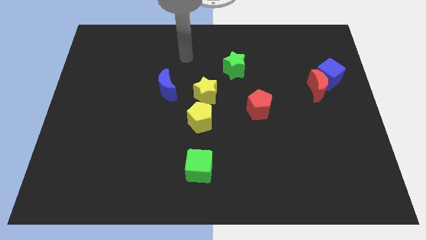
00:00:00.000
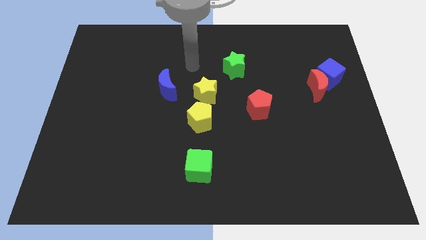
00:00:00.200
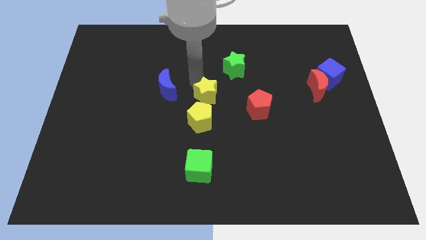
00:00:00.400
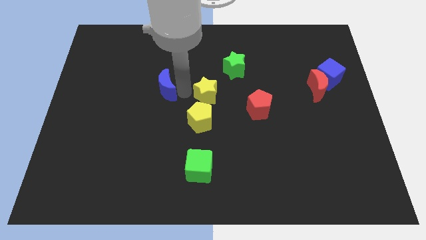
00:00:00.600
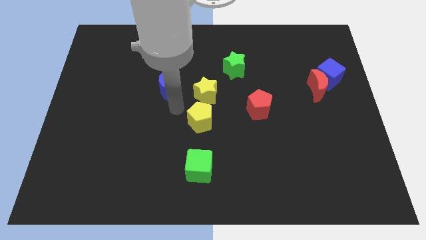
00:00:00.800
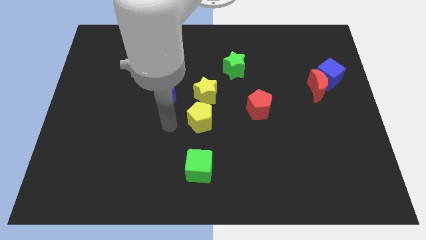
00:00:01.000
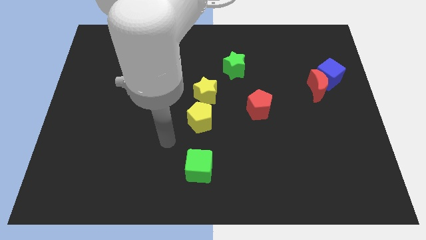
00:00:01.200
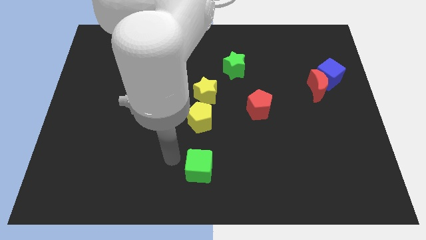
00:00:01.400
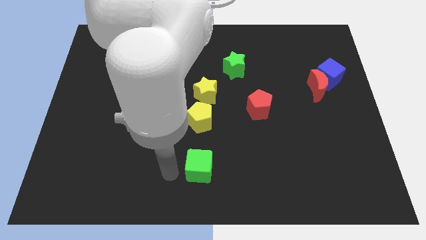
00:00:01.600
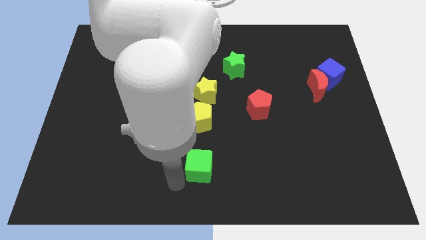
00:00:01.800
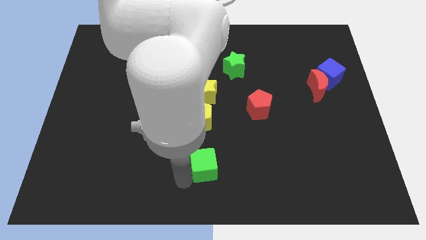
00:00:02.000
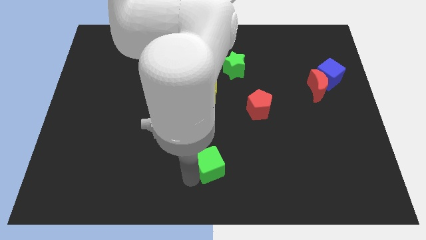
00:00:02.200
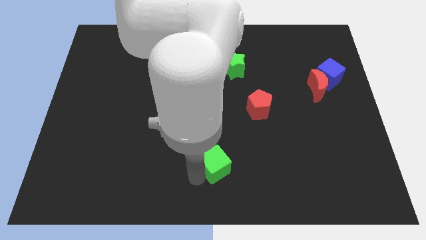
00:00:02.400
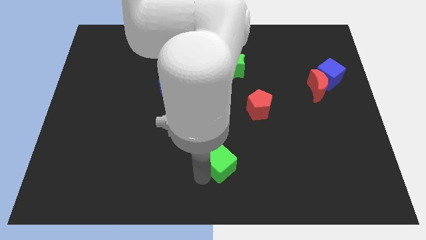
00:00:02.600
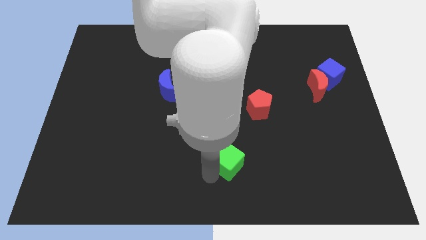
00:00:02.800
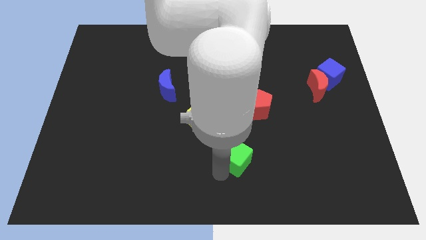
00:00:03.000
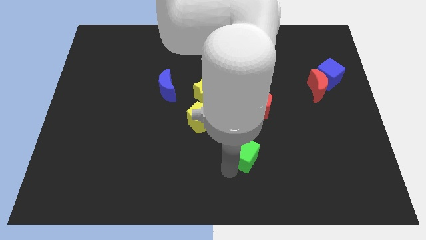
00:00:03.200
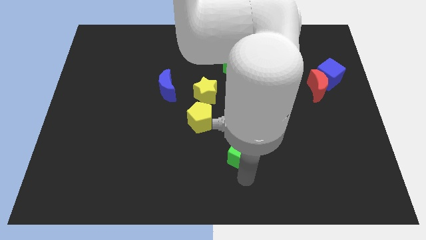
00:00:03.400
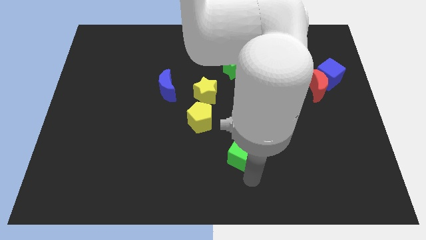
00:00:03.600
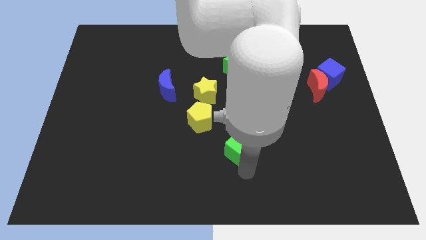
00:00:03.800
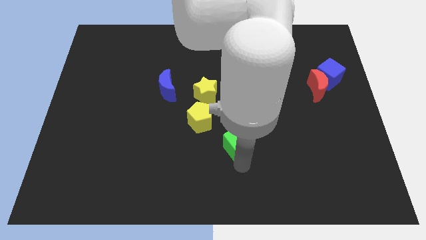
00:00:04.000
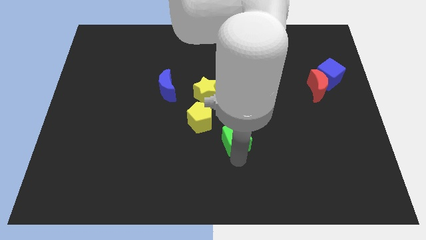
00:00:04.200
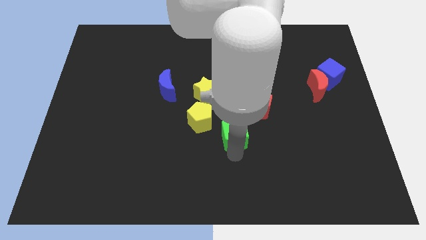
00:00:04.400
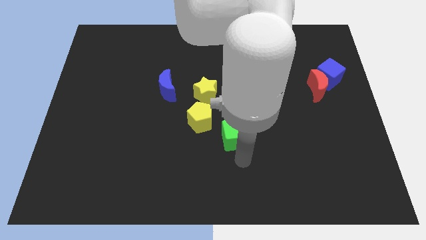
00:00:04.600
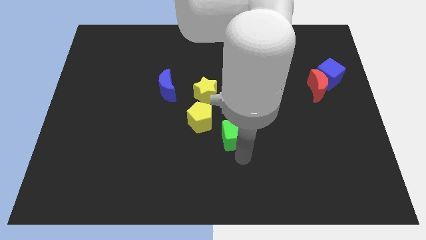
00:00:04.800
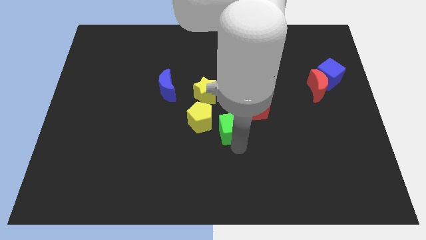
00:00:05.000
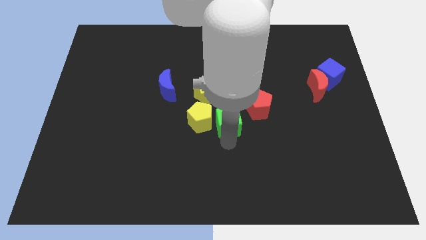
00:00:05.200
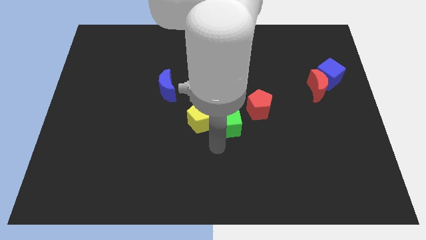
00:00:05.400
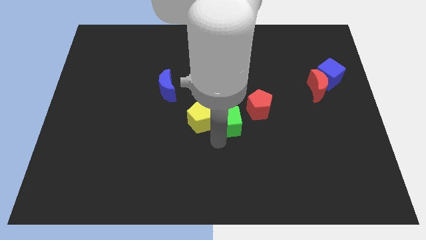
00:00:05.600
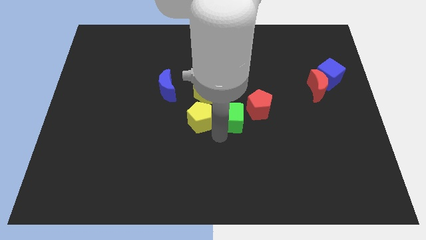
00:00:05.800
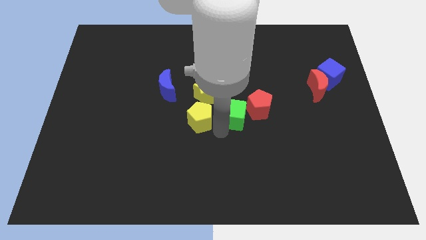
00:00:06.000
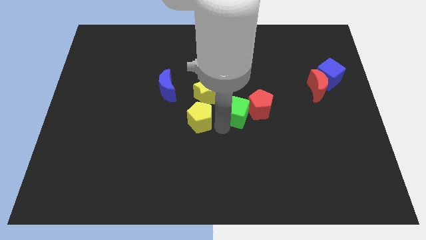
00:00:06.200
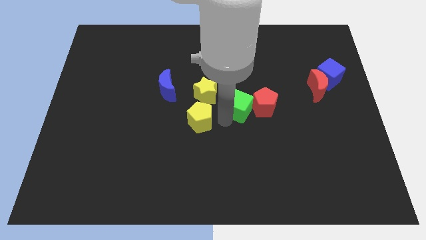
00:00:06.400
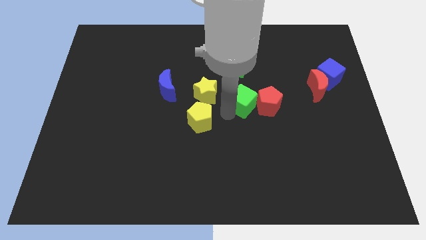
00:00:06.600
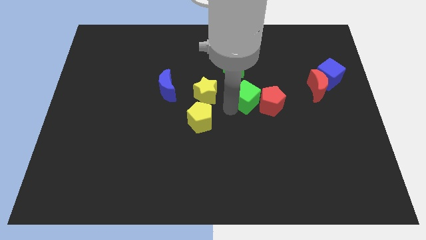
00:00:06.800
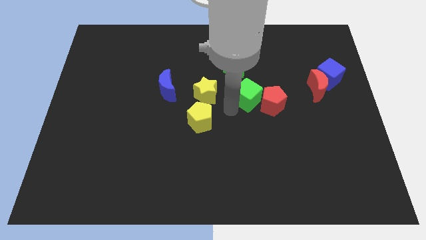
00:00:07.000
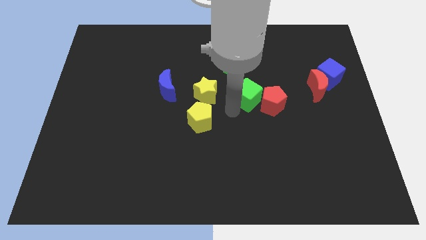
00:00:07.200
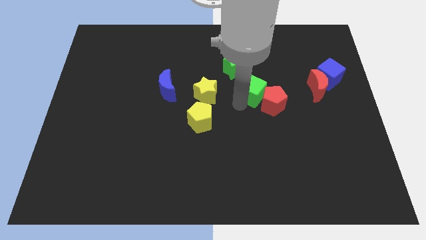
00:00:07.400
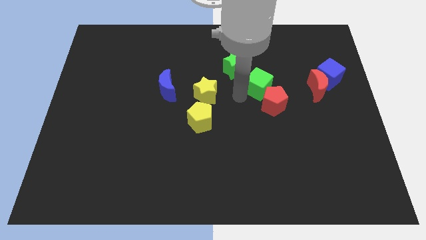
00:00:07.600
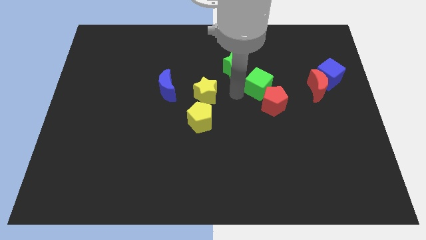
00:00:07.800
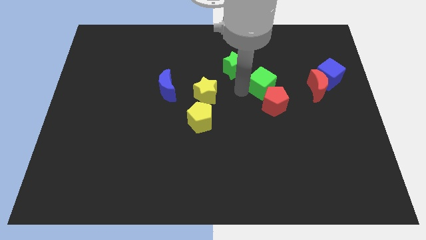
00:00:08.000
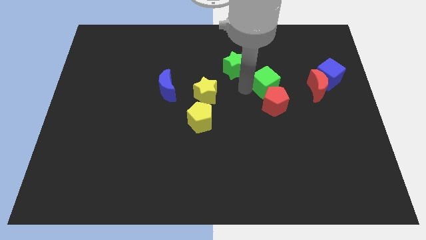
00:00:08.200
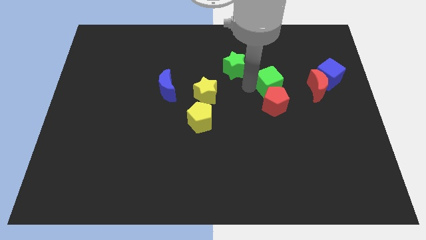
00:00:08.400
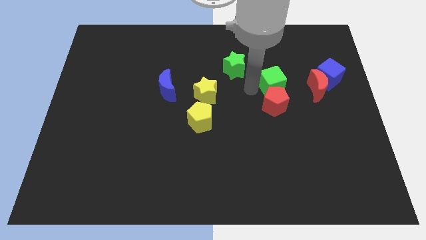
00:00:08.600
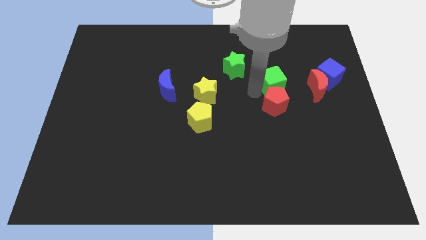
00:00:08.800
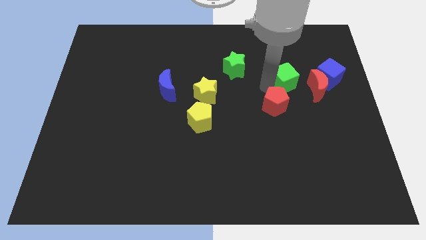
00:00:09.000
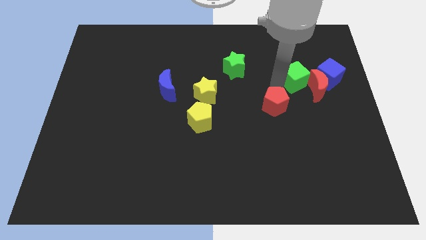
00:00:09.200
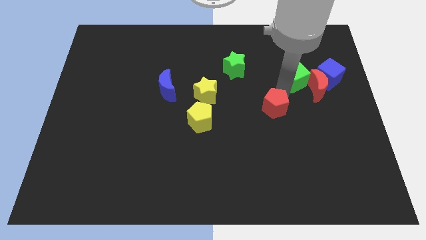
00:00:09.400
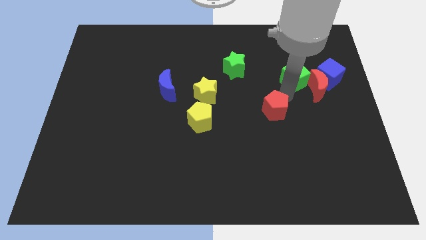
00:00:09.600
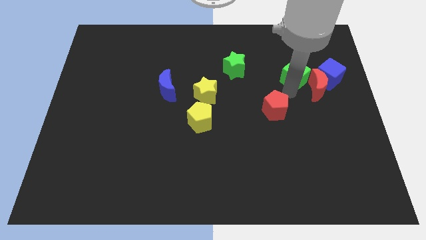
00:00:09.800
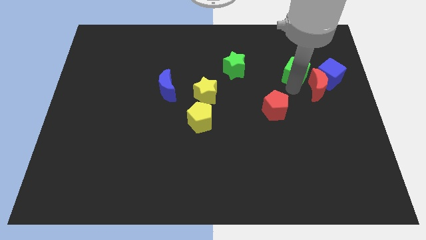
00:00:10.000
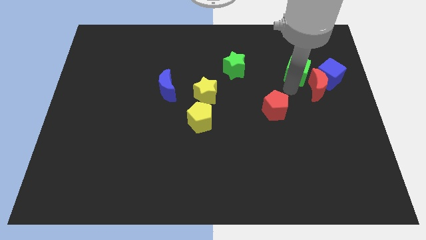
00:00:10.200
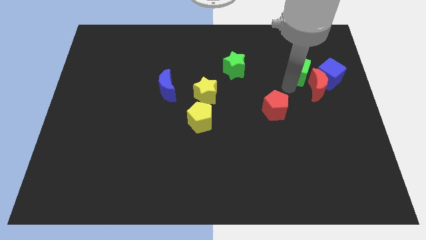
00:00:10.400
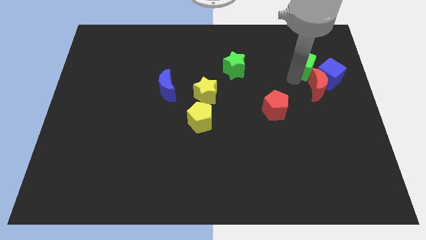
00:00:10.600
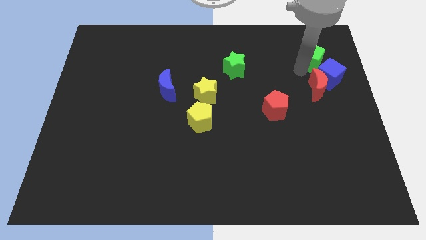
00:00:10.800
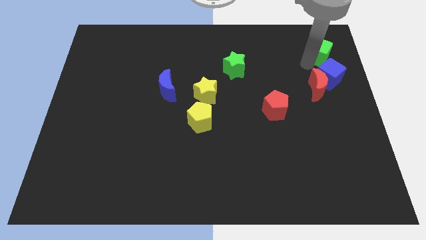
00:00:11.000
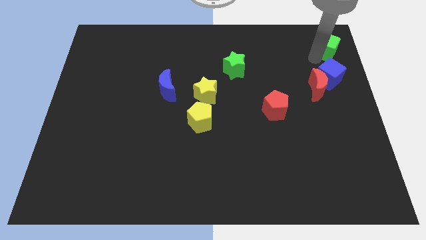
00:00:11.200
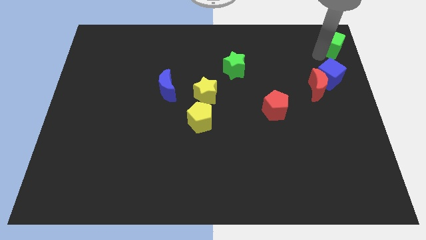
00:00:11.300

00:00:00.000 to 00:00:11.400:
slide the green cube to the upper right corner

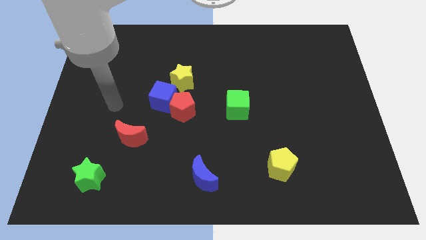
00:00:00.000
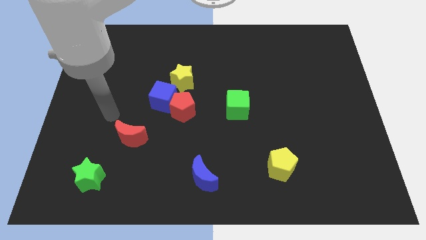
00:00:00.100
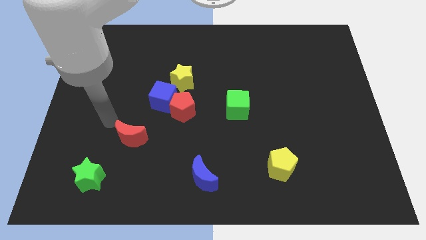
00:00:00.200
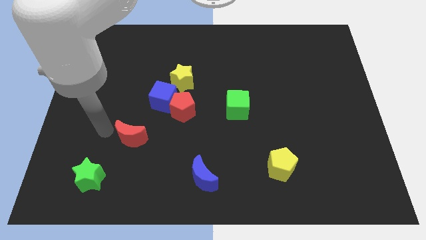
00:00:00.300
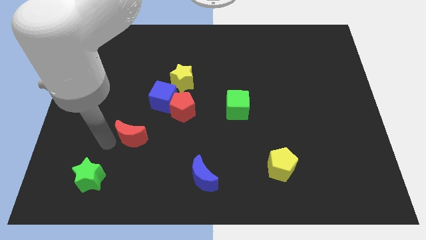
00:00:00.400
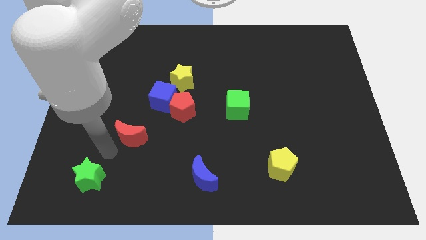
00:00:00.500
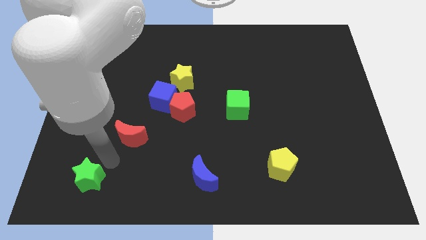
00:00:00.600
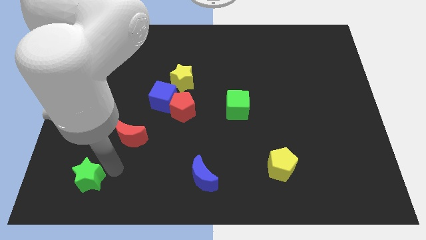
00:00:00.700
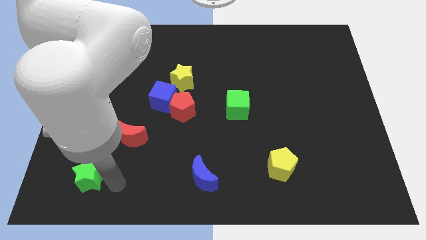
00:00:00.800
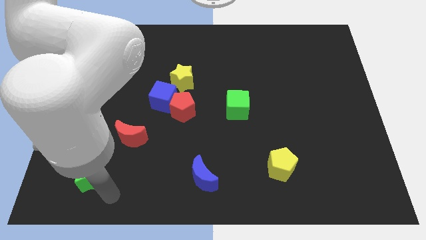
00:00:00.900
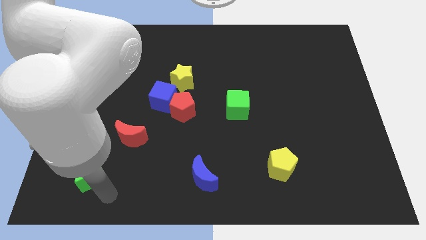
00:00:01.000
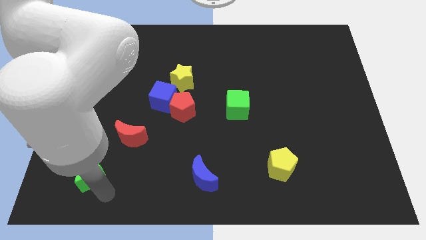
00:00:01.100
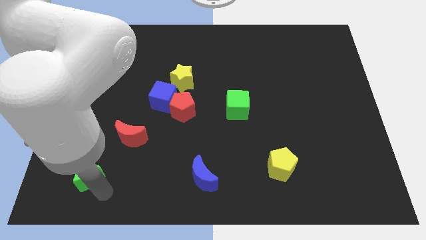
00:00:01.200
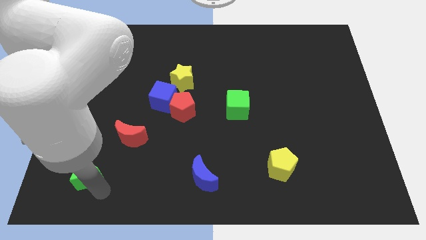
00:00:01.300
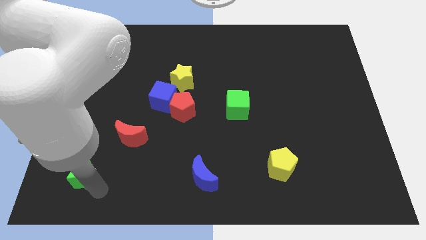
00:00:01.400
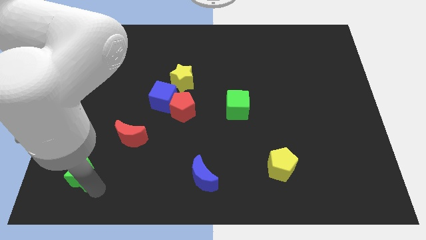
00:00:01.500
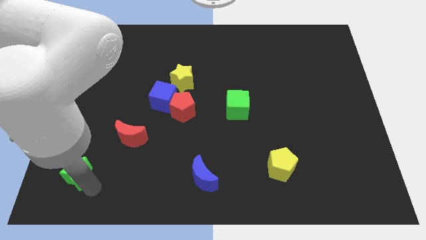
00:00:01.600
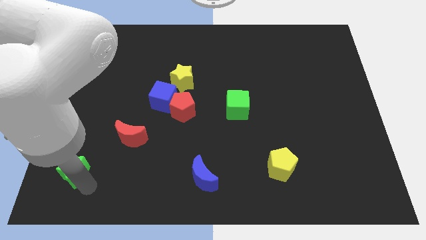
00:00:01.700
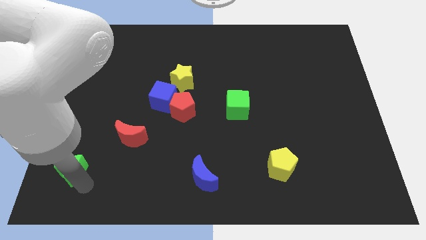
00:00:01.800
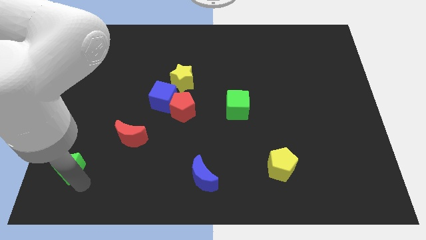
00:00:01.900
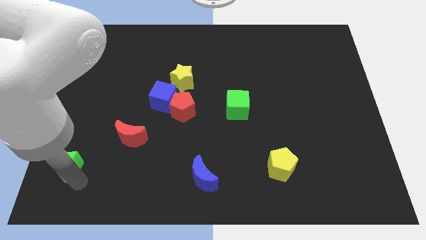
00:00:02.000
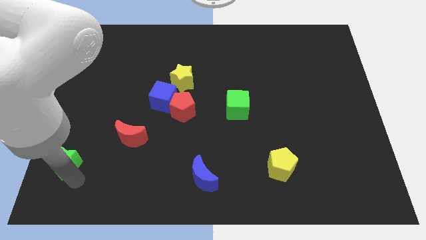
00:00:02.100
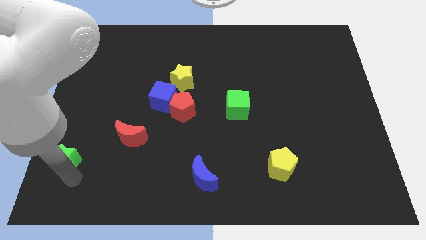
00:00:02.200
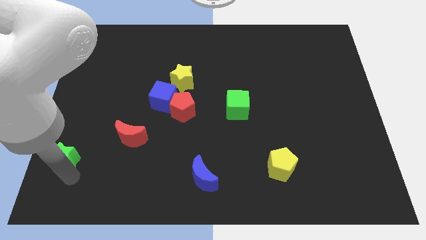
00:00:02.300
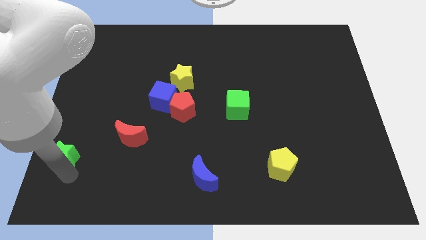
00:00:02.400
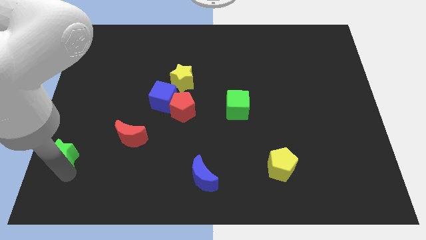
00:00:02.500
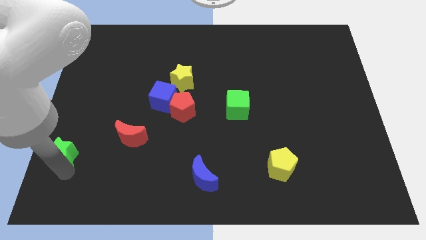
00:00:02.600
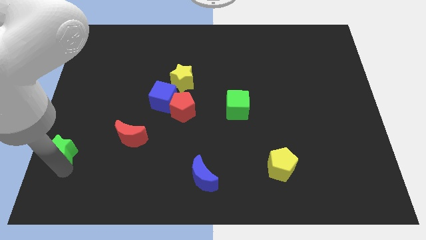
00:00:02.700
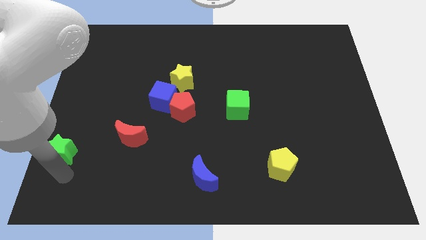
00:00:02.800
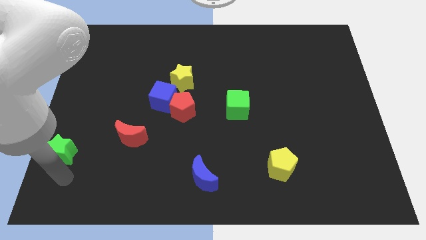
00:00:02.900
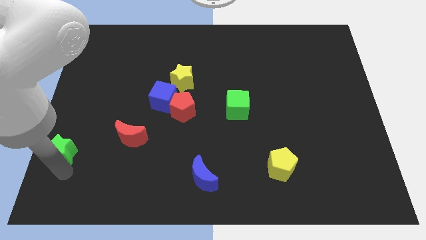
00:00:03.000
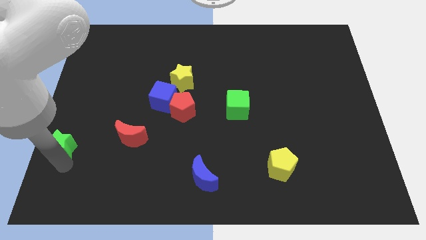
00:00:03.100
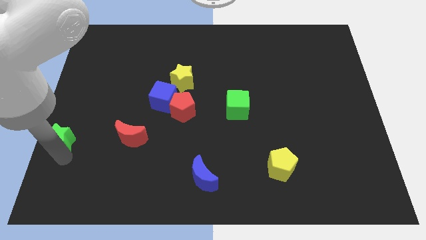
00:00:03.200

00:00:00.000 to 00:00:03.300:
put the green star to the left side
